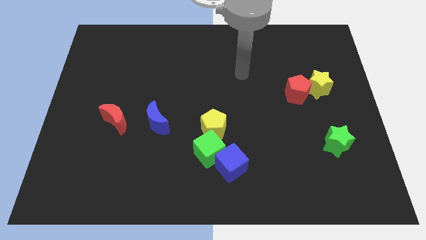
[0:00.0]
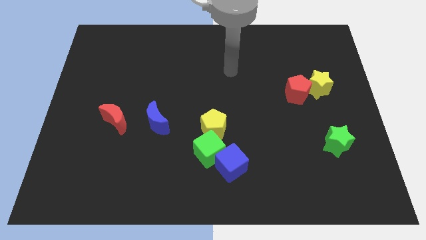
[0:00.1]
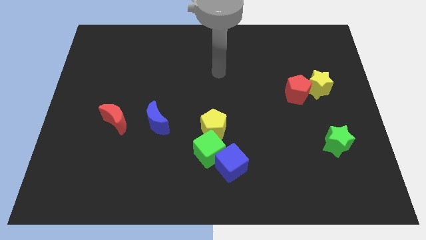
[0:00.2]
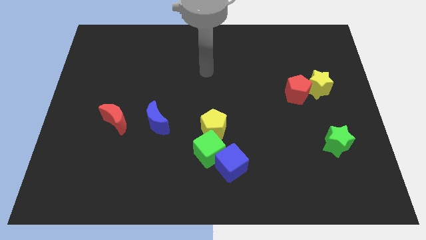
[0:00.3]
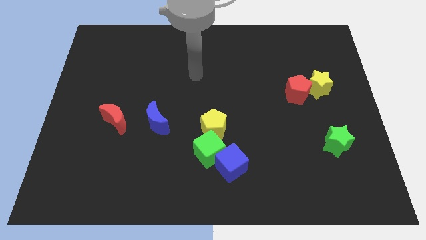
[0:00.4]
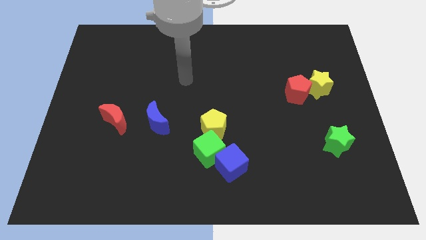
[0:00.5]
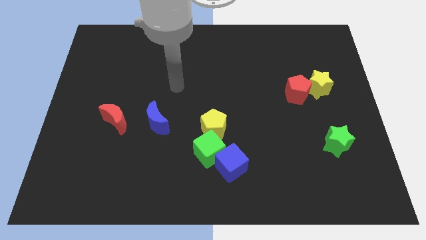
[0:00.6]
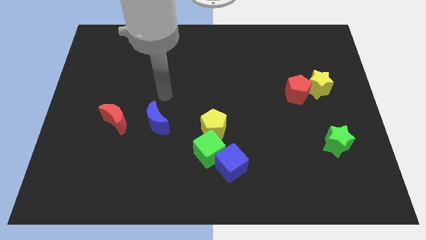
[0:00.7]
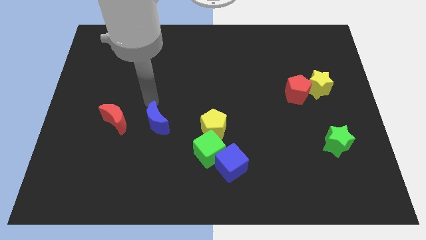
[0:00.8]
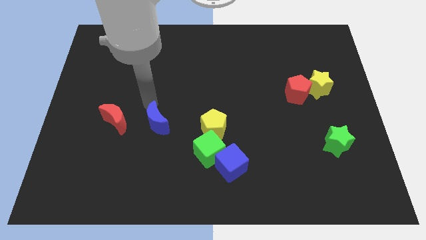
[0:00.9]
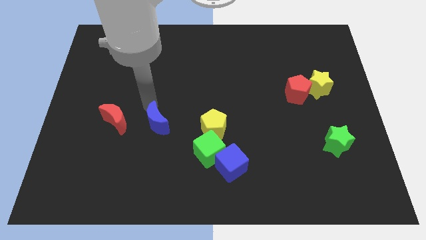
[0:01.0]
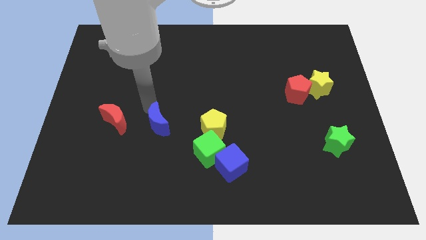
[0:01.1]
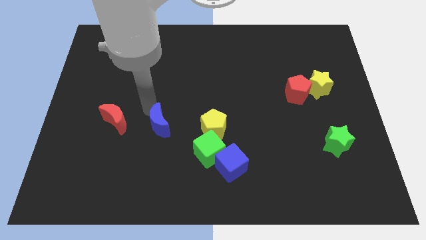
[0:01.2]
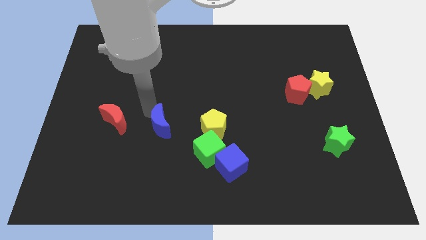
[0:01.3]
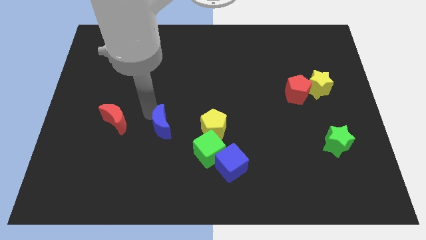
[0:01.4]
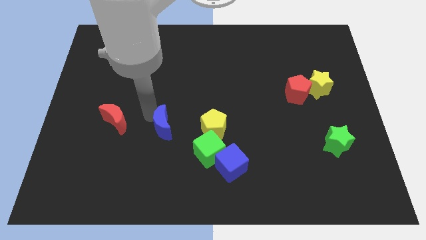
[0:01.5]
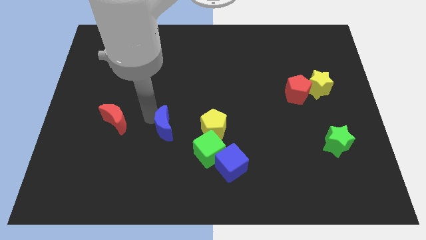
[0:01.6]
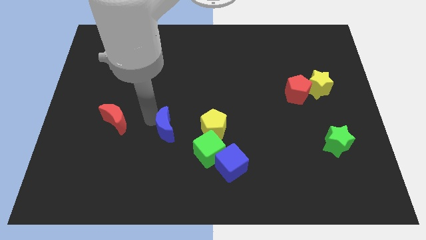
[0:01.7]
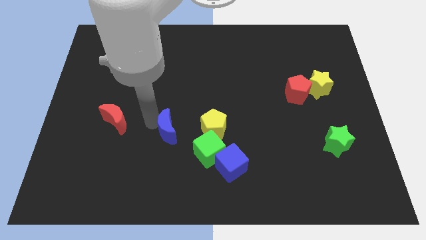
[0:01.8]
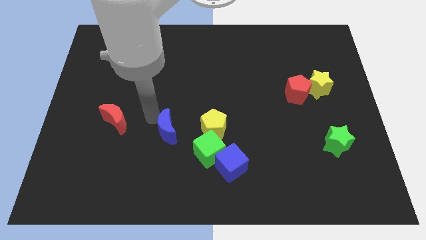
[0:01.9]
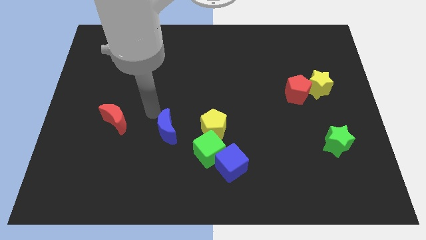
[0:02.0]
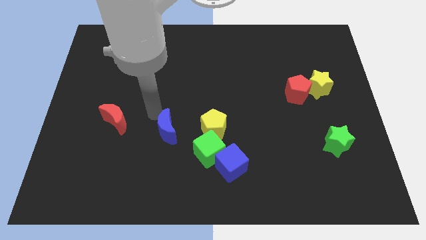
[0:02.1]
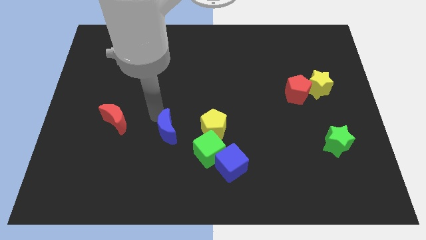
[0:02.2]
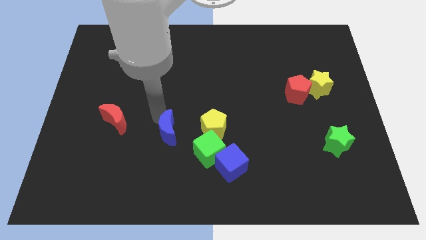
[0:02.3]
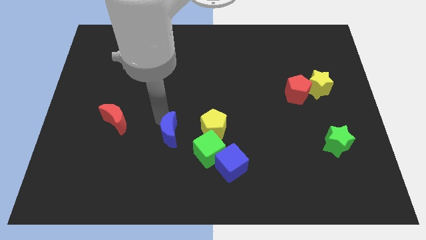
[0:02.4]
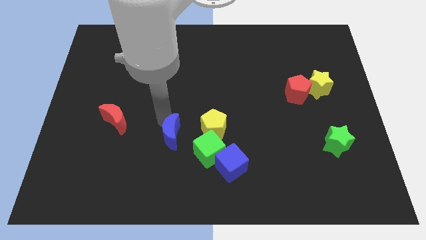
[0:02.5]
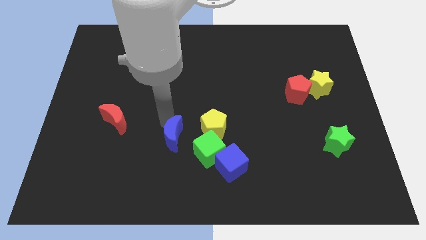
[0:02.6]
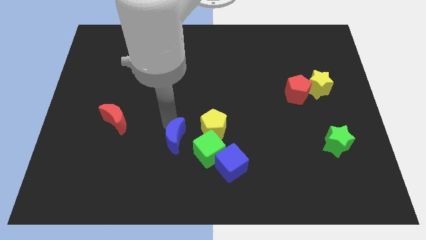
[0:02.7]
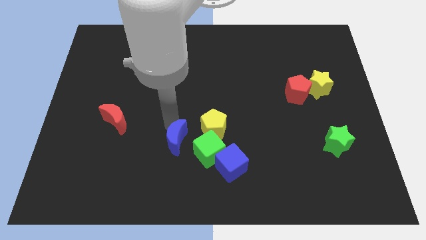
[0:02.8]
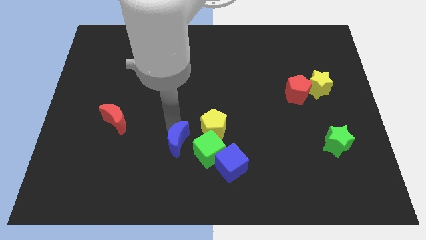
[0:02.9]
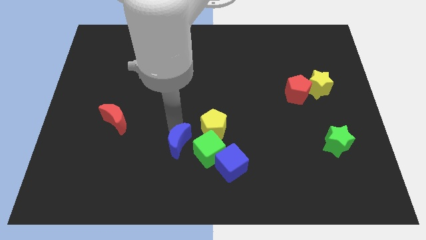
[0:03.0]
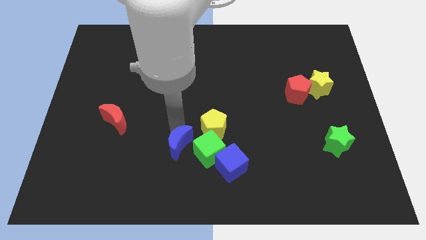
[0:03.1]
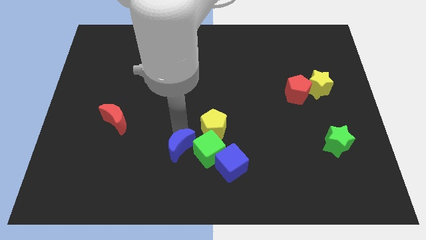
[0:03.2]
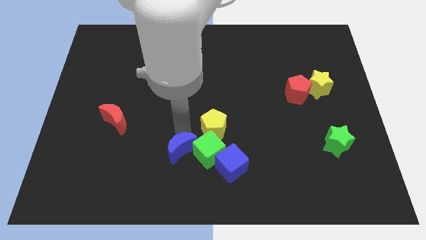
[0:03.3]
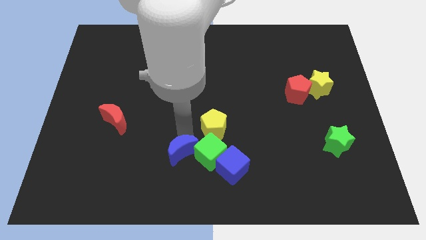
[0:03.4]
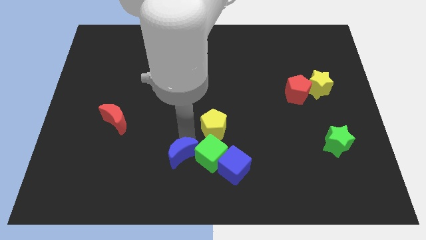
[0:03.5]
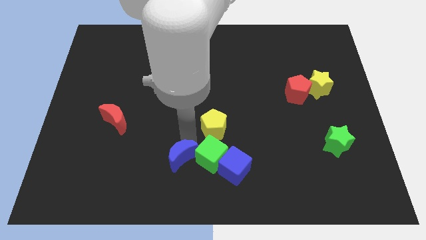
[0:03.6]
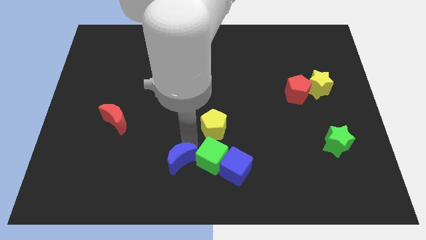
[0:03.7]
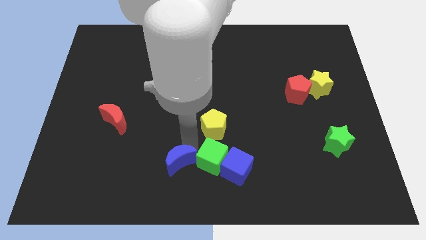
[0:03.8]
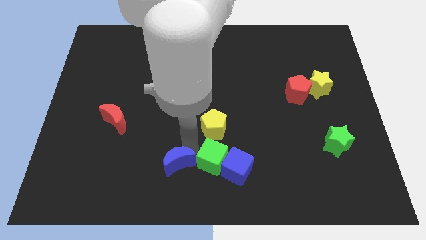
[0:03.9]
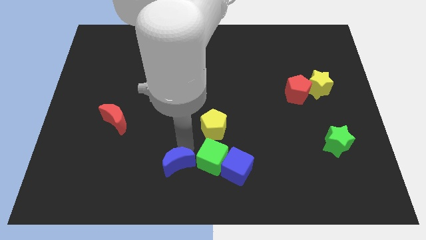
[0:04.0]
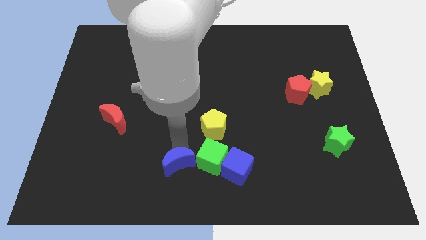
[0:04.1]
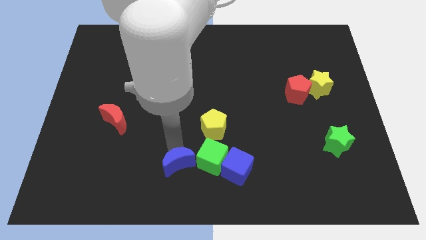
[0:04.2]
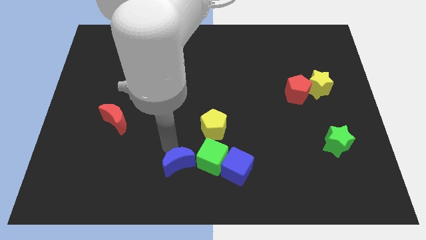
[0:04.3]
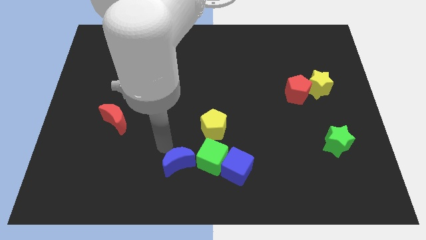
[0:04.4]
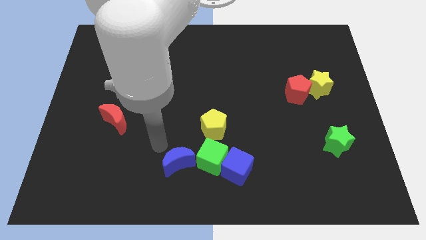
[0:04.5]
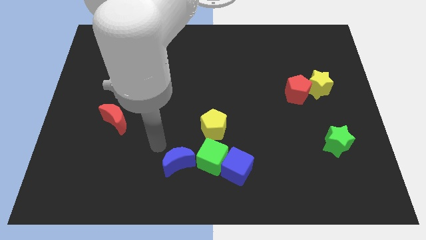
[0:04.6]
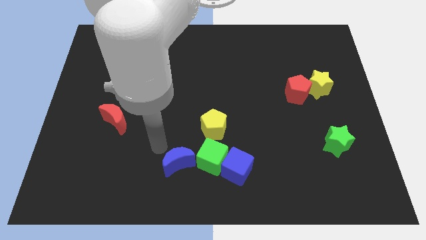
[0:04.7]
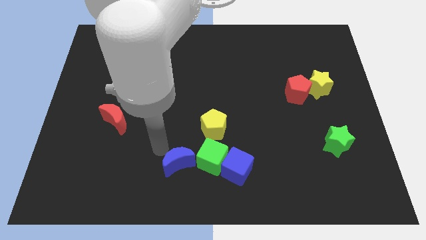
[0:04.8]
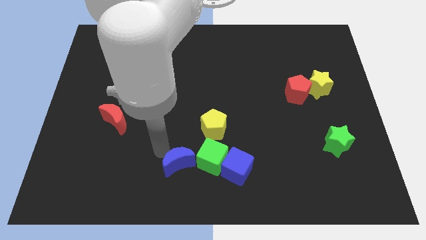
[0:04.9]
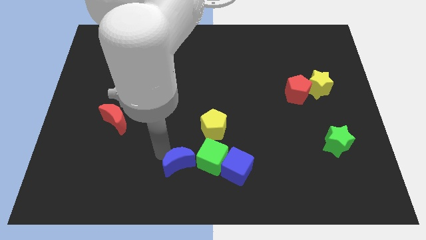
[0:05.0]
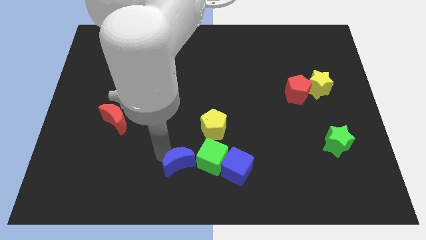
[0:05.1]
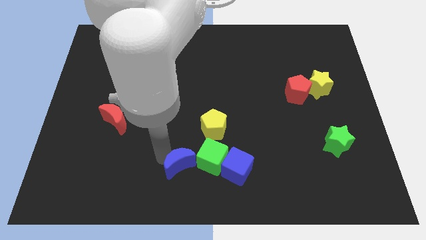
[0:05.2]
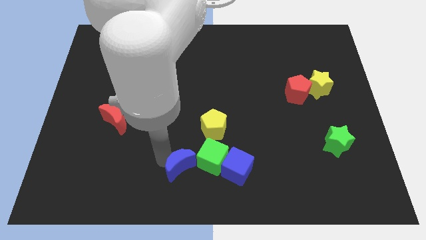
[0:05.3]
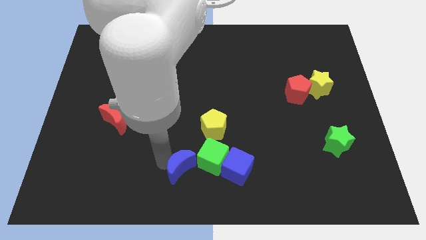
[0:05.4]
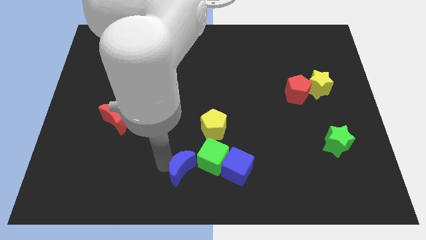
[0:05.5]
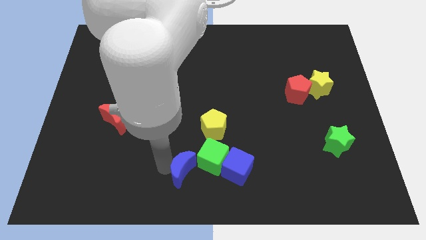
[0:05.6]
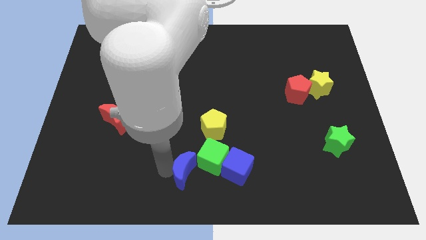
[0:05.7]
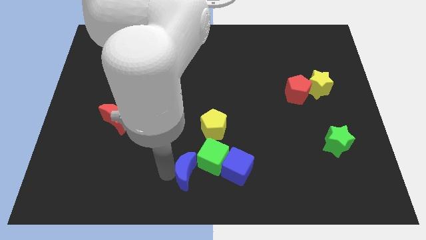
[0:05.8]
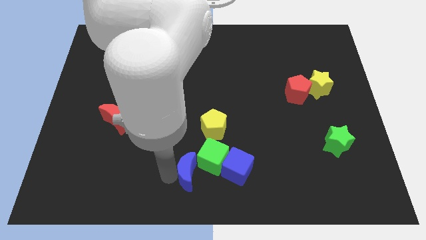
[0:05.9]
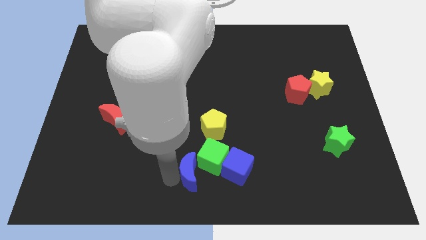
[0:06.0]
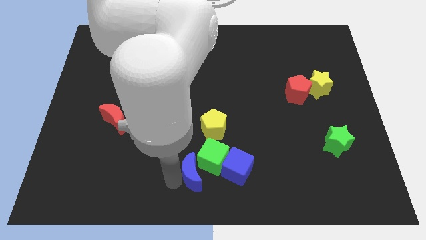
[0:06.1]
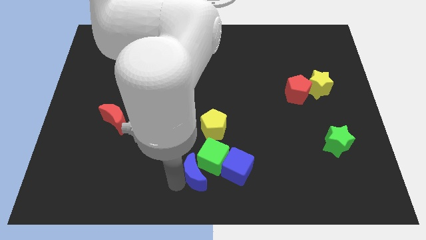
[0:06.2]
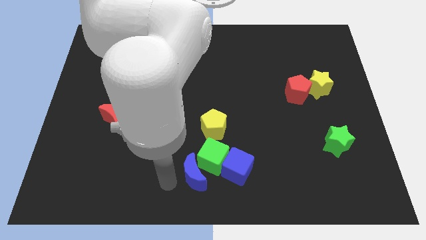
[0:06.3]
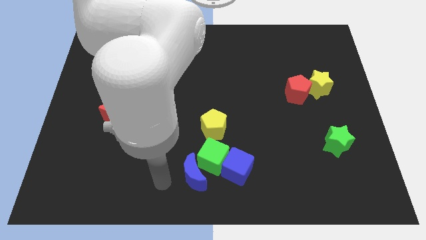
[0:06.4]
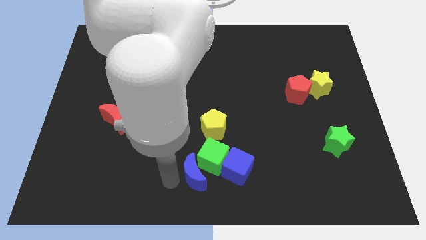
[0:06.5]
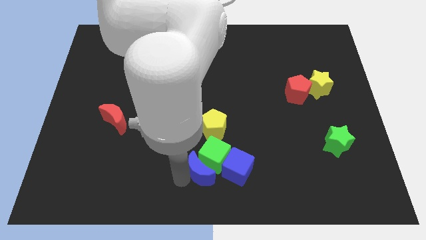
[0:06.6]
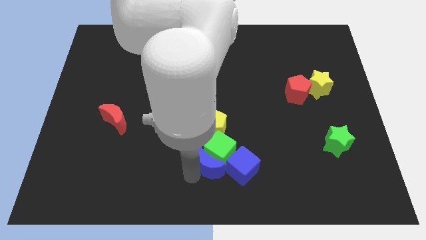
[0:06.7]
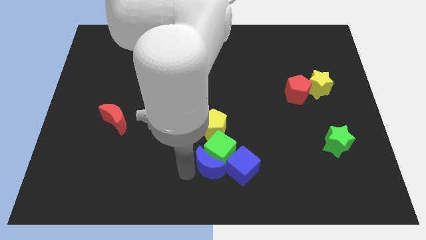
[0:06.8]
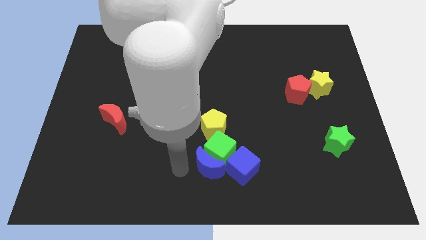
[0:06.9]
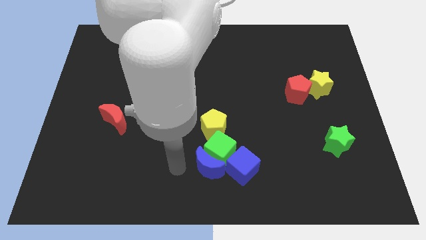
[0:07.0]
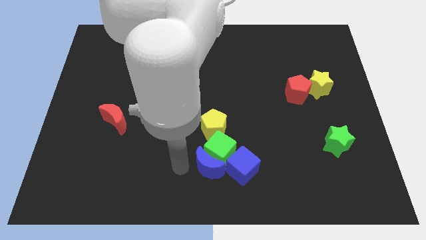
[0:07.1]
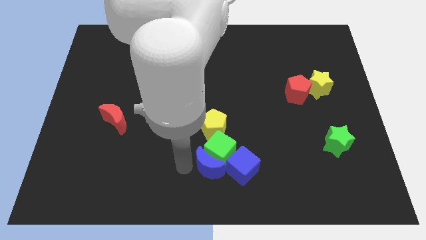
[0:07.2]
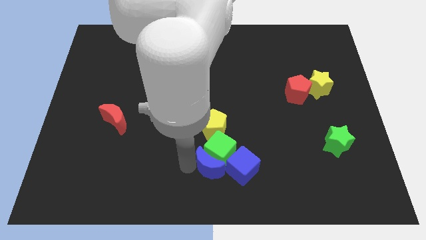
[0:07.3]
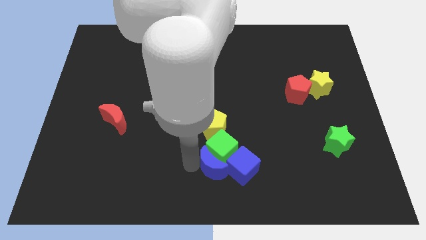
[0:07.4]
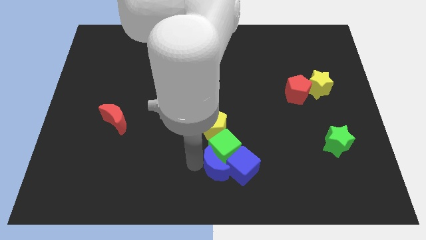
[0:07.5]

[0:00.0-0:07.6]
put the blue moon towards the blue cube
